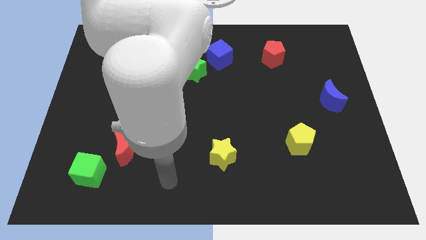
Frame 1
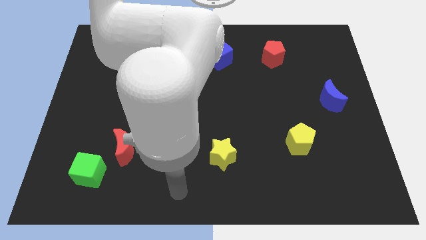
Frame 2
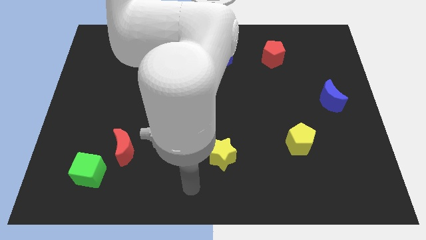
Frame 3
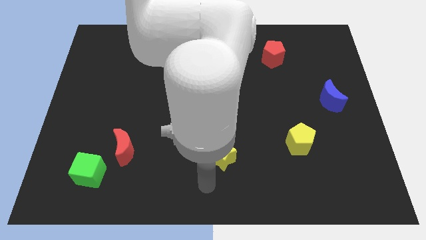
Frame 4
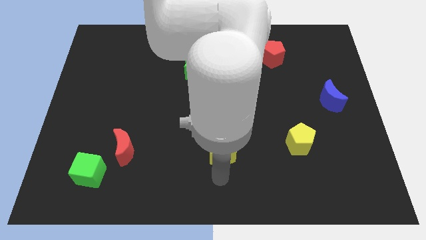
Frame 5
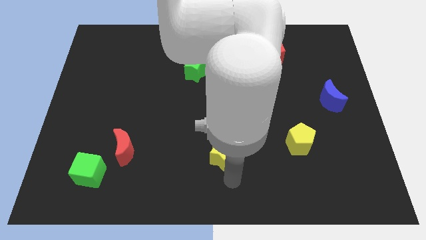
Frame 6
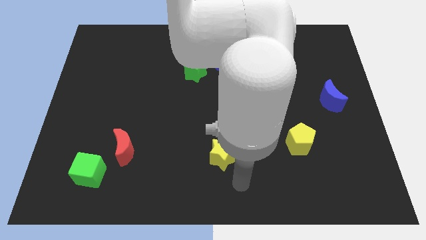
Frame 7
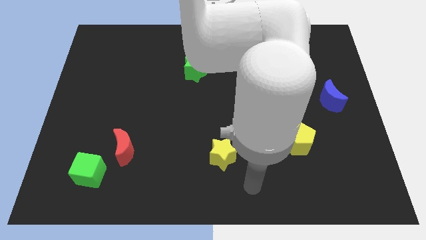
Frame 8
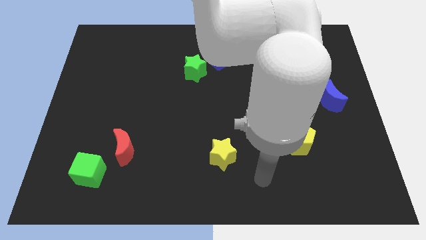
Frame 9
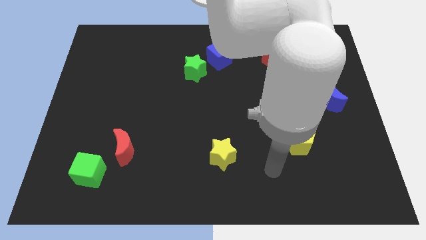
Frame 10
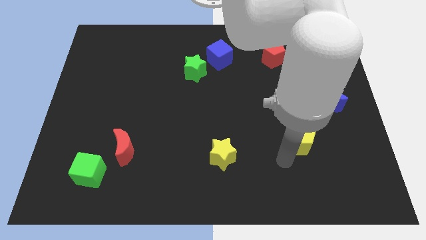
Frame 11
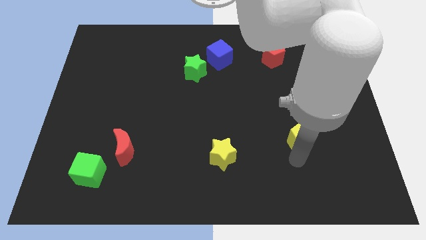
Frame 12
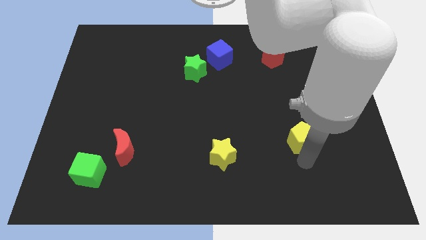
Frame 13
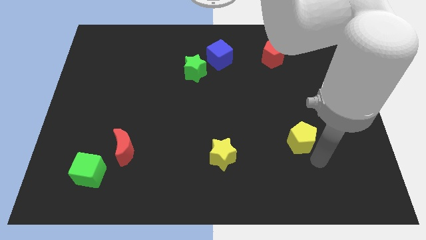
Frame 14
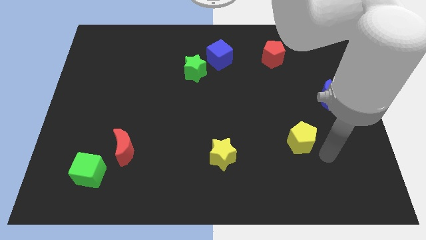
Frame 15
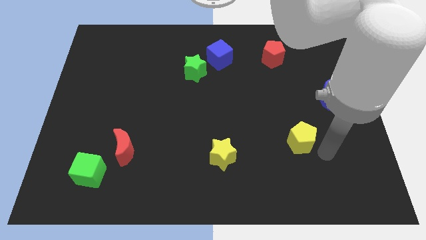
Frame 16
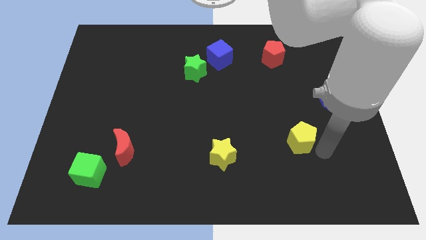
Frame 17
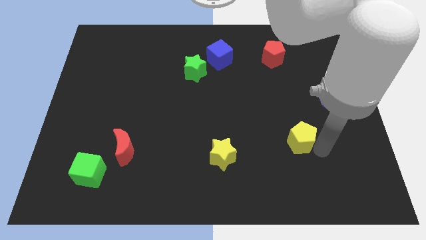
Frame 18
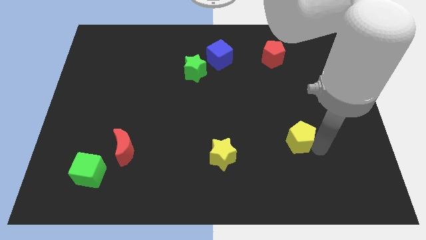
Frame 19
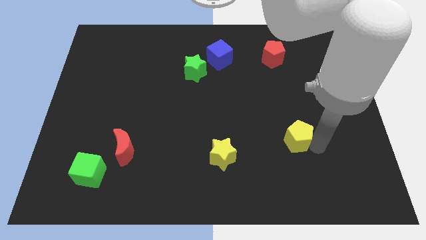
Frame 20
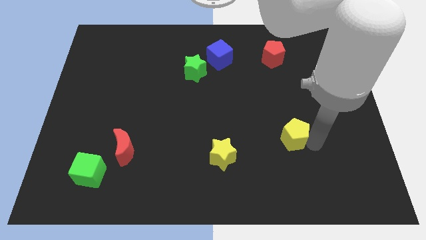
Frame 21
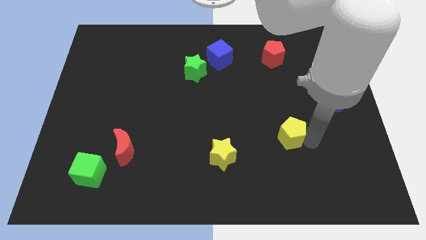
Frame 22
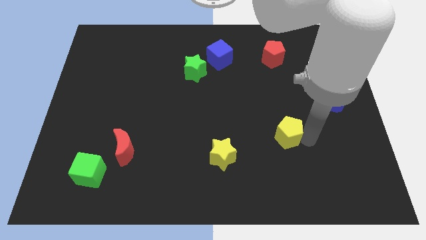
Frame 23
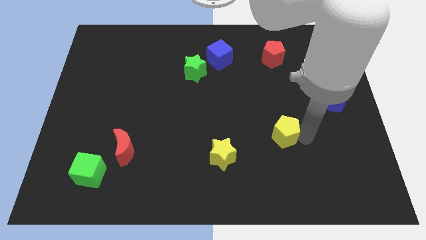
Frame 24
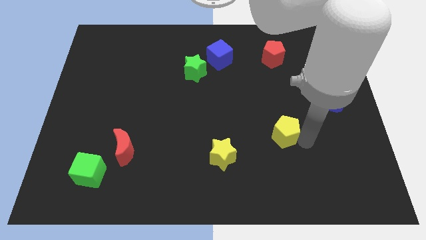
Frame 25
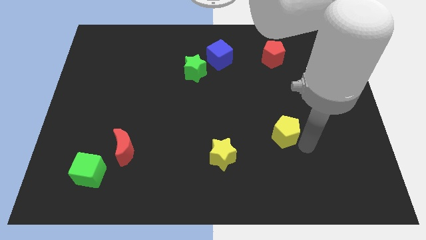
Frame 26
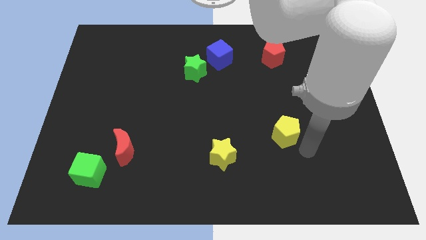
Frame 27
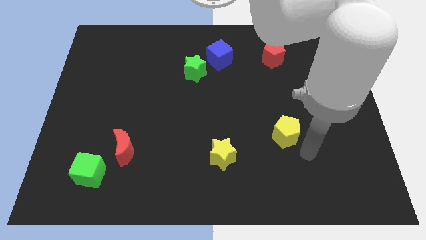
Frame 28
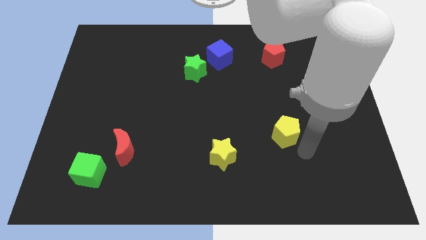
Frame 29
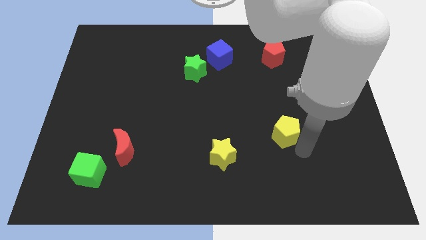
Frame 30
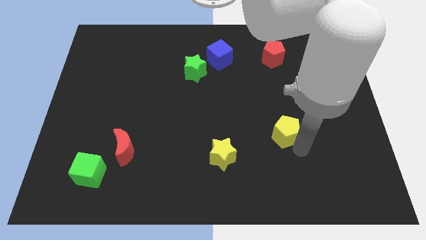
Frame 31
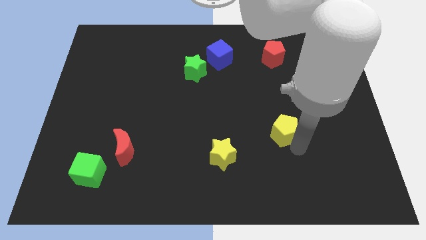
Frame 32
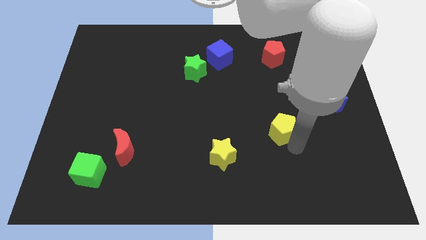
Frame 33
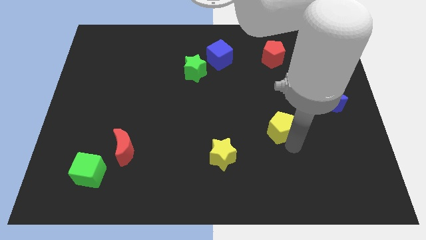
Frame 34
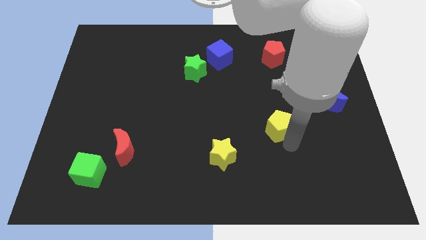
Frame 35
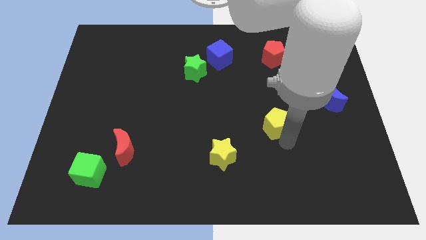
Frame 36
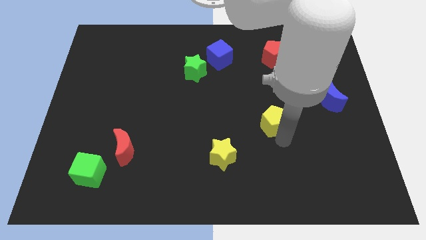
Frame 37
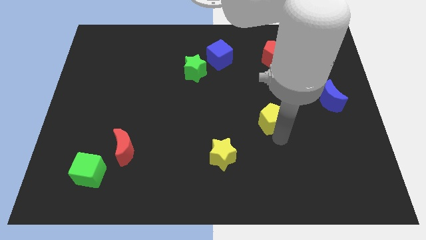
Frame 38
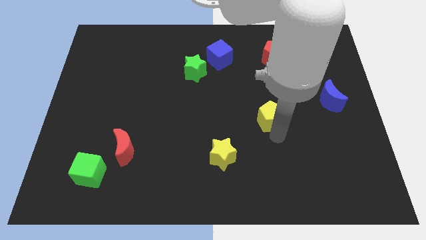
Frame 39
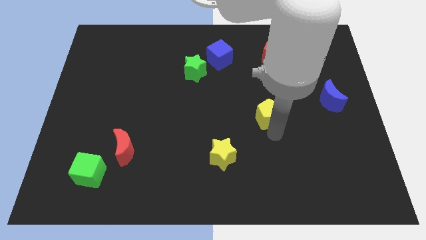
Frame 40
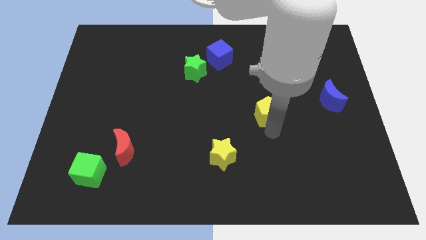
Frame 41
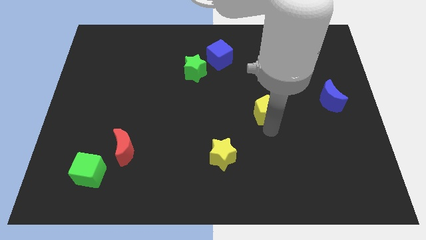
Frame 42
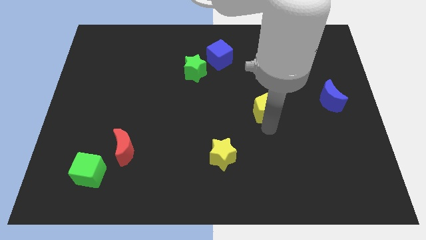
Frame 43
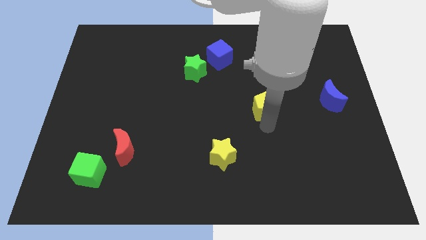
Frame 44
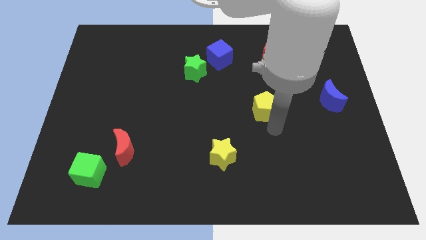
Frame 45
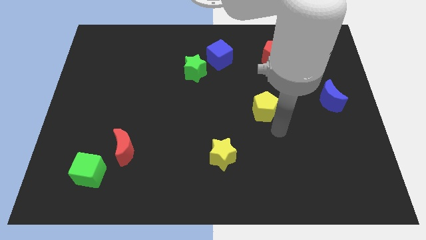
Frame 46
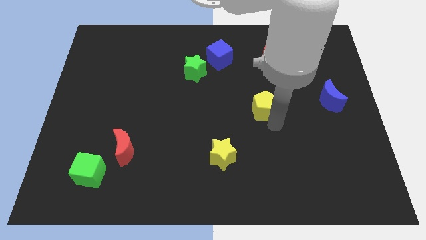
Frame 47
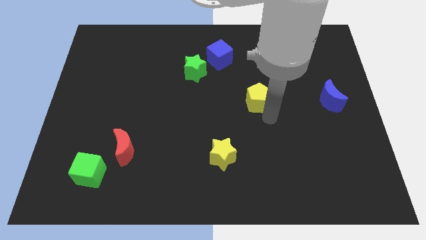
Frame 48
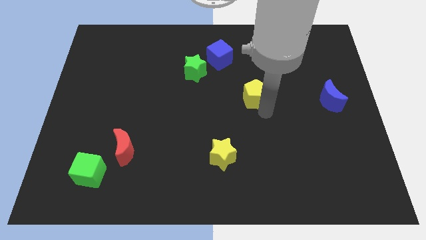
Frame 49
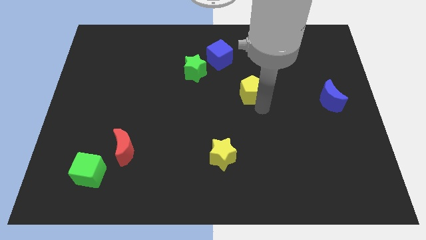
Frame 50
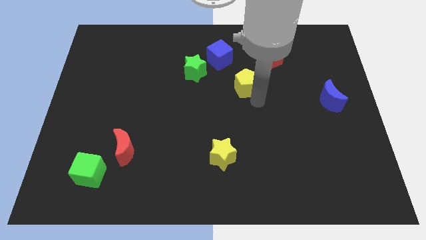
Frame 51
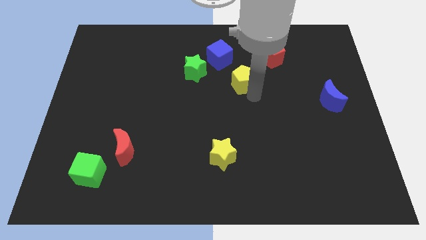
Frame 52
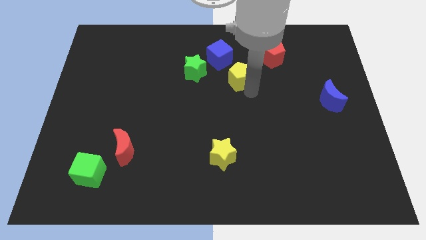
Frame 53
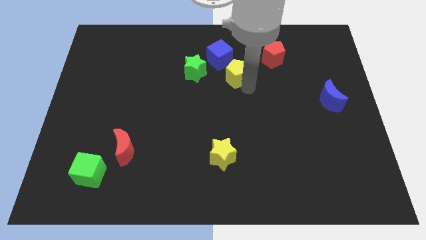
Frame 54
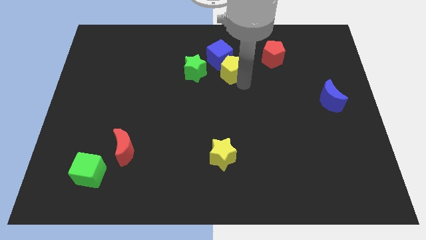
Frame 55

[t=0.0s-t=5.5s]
slide the yellow pentagon close to the blue cube

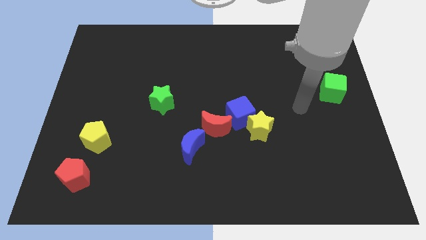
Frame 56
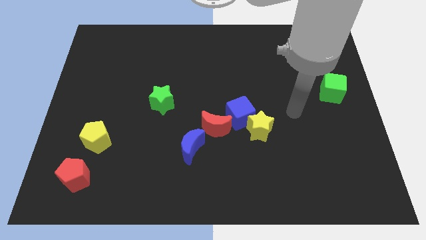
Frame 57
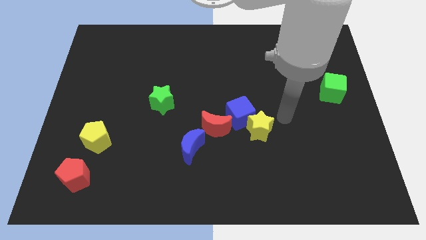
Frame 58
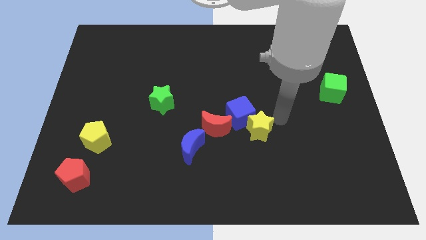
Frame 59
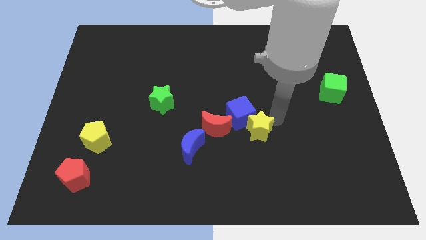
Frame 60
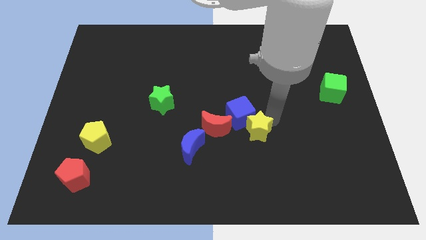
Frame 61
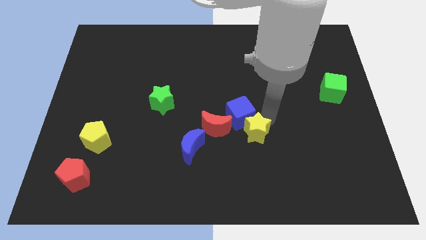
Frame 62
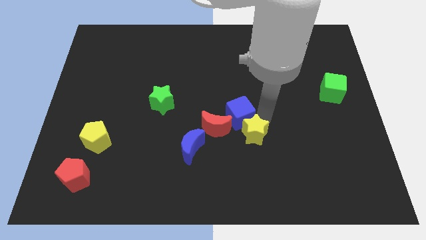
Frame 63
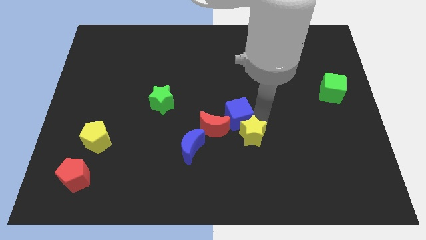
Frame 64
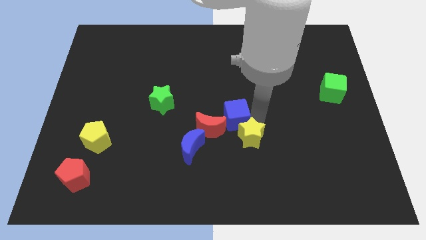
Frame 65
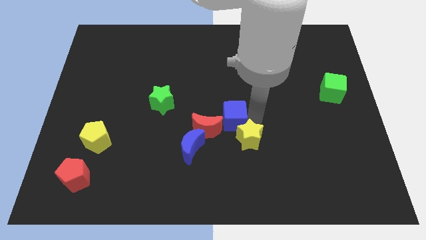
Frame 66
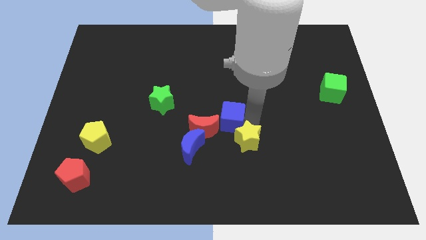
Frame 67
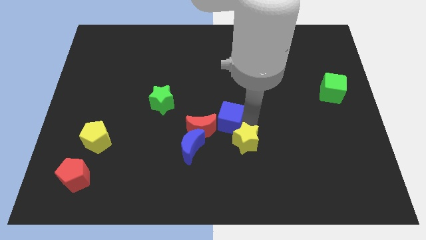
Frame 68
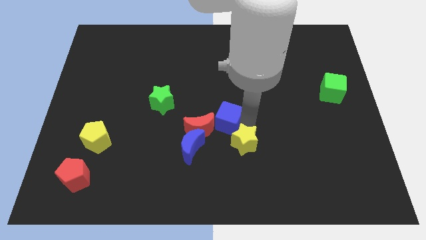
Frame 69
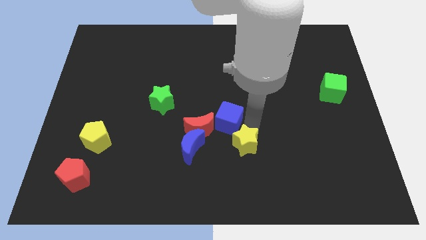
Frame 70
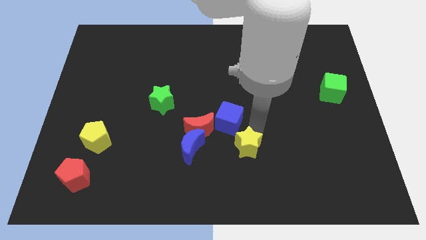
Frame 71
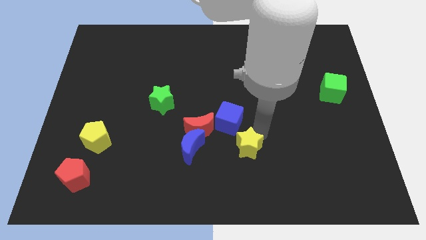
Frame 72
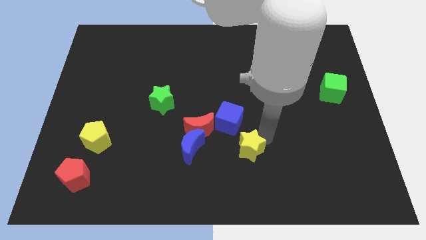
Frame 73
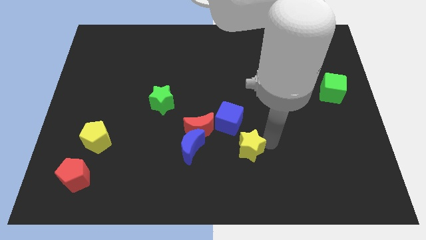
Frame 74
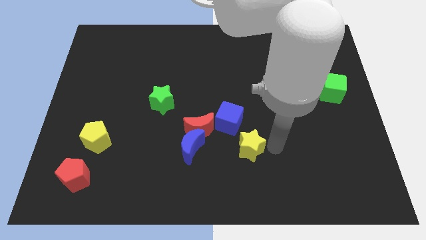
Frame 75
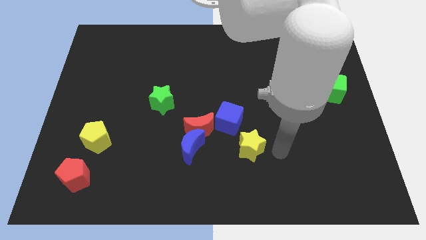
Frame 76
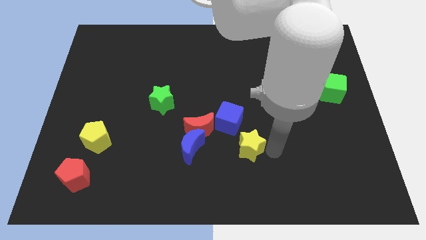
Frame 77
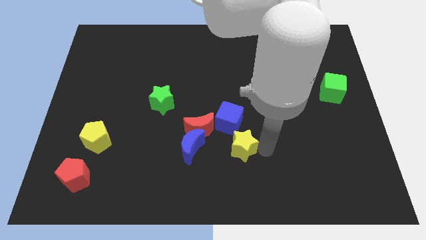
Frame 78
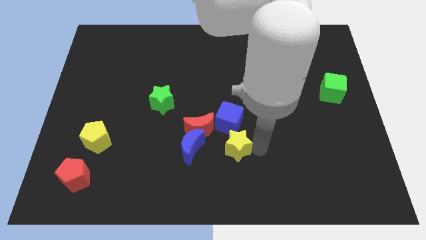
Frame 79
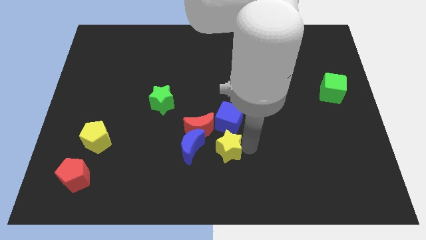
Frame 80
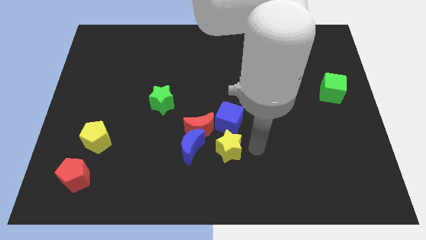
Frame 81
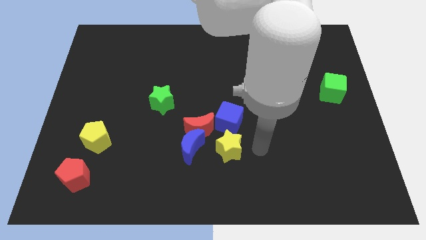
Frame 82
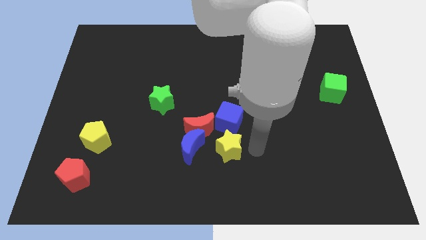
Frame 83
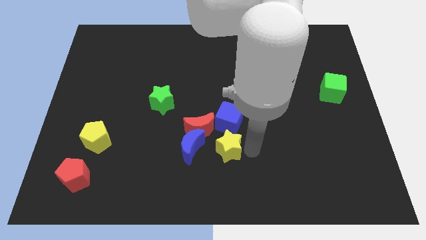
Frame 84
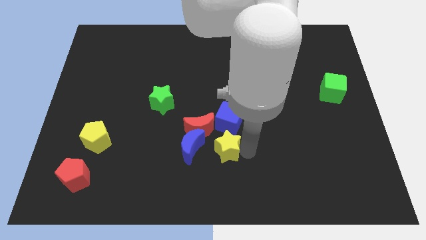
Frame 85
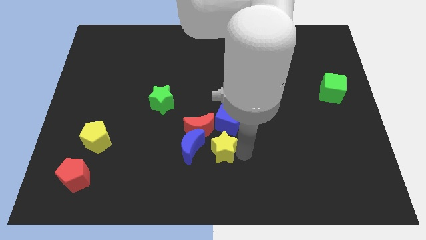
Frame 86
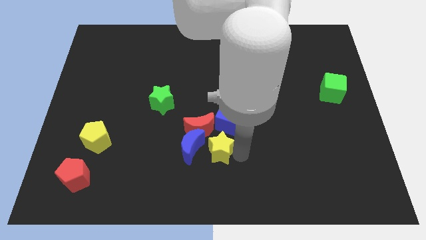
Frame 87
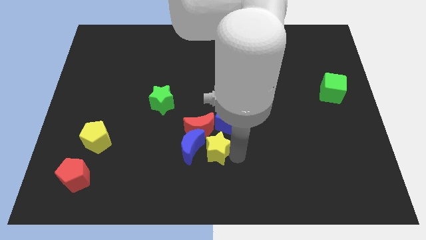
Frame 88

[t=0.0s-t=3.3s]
slide the yellow star close to the blue moon
